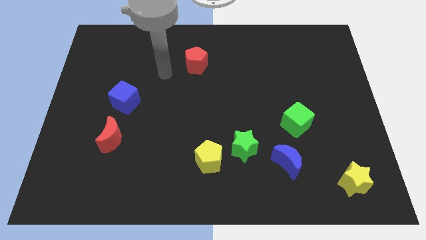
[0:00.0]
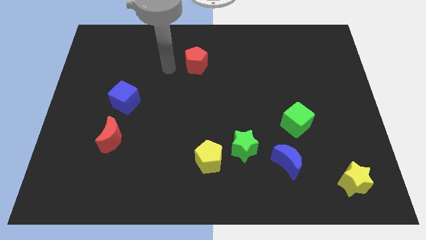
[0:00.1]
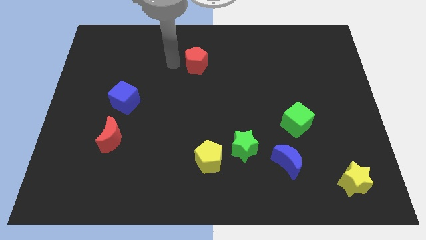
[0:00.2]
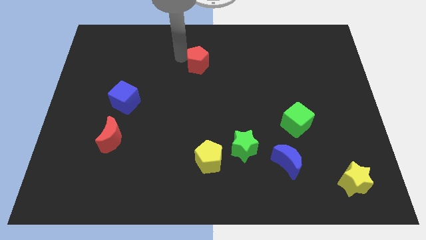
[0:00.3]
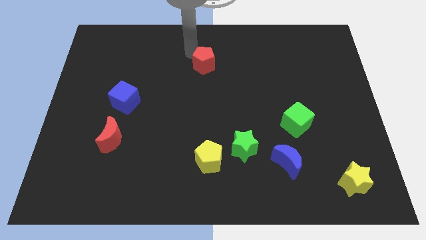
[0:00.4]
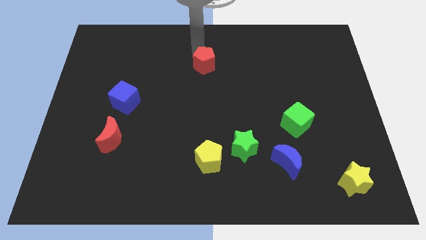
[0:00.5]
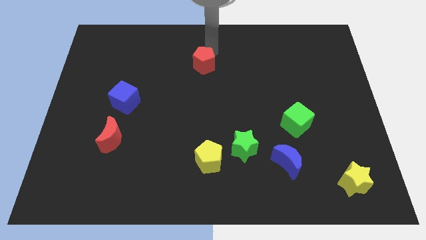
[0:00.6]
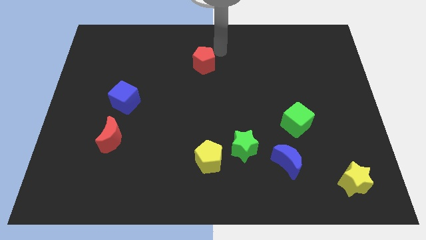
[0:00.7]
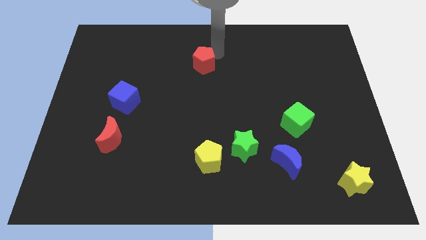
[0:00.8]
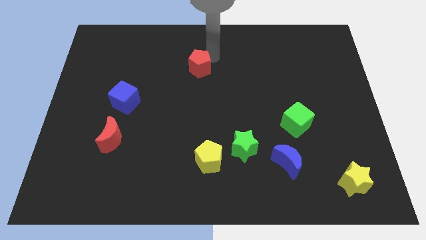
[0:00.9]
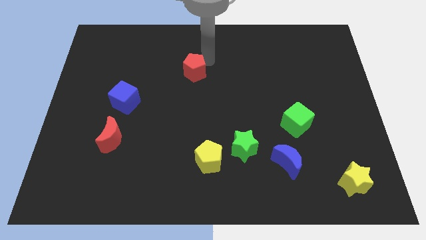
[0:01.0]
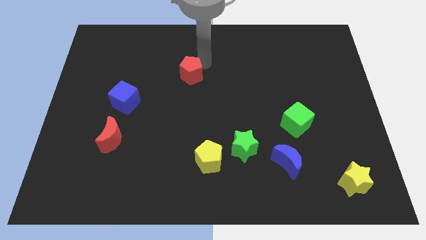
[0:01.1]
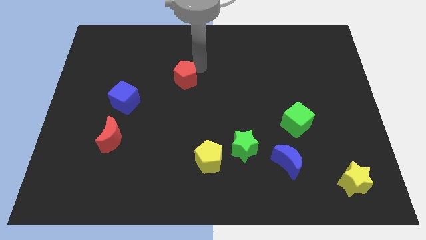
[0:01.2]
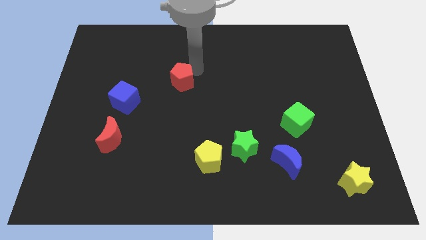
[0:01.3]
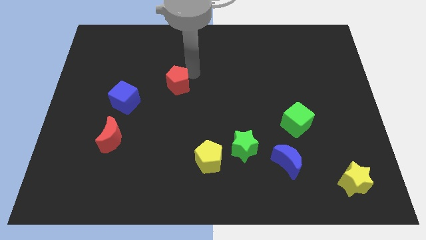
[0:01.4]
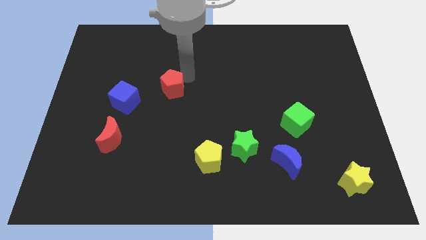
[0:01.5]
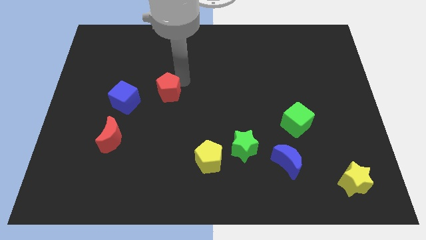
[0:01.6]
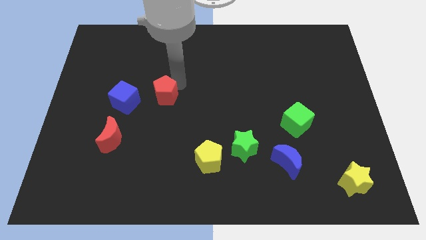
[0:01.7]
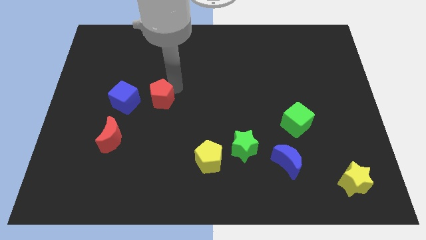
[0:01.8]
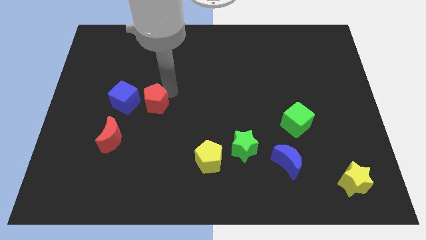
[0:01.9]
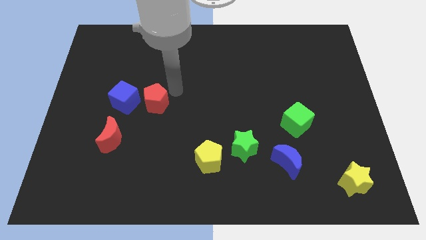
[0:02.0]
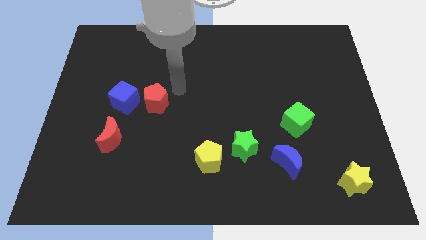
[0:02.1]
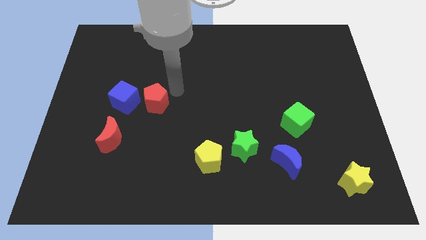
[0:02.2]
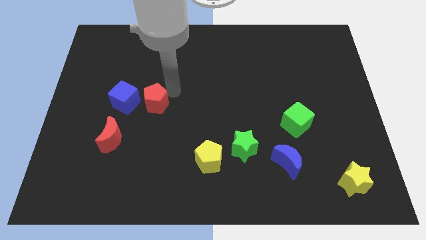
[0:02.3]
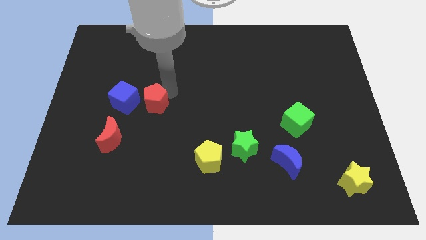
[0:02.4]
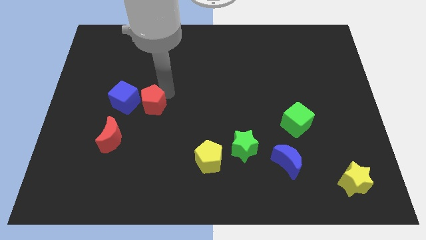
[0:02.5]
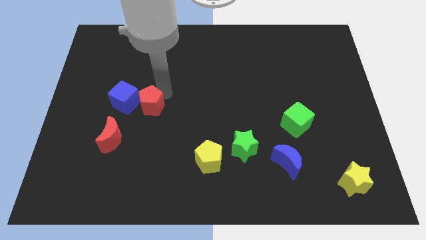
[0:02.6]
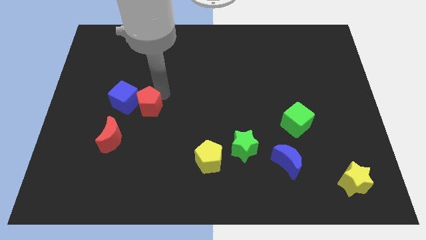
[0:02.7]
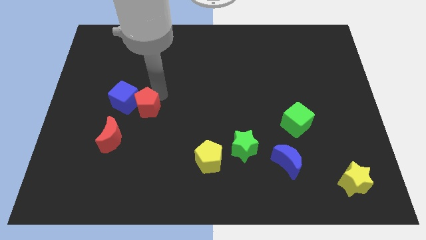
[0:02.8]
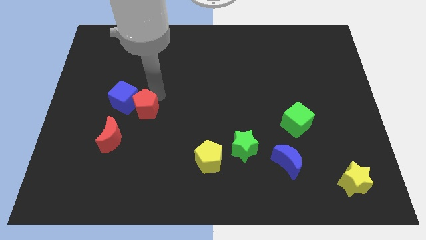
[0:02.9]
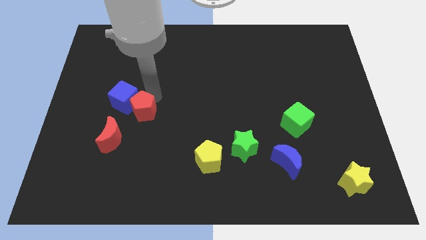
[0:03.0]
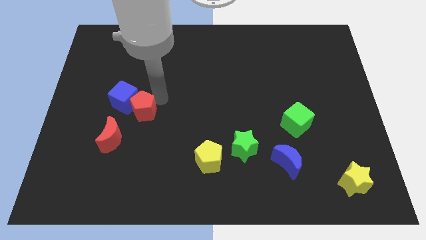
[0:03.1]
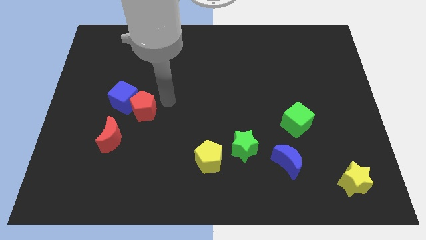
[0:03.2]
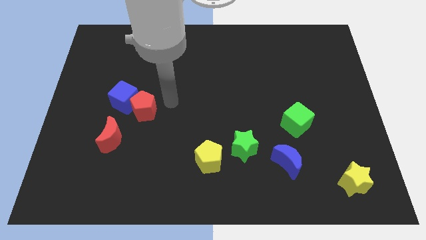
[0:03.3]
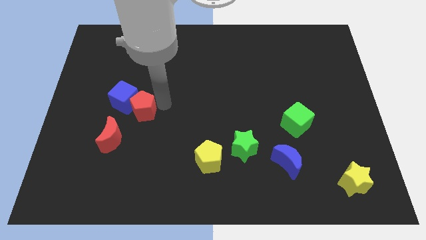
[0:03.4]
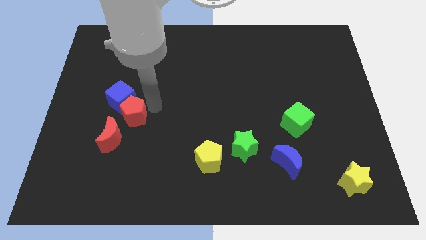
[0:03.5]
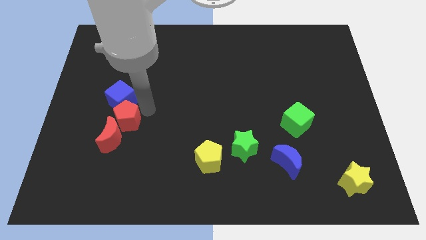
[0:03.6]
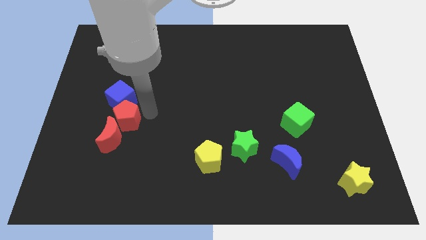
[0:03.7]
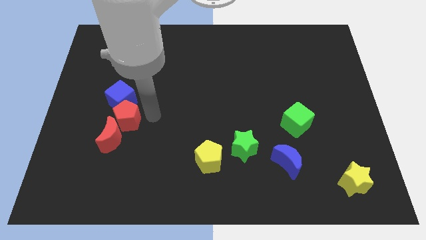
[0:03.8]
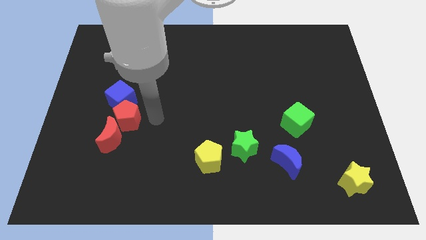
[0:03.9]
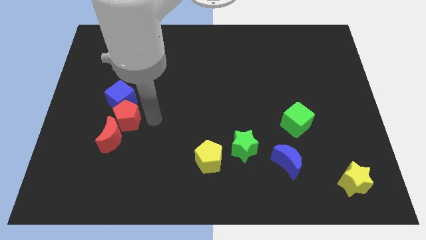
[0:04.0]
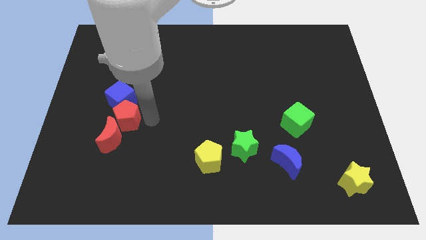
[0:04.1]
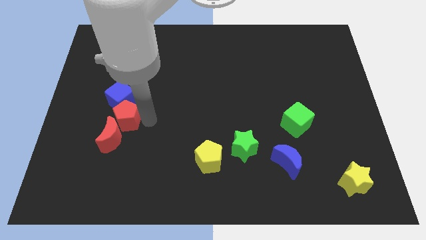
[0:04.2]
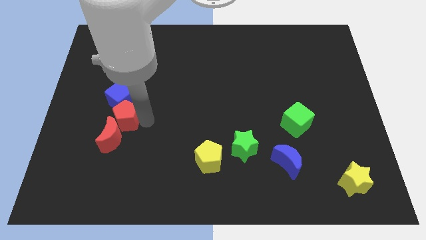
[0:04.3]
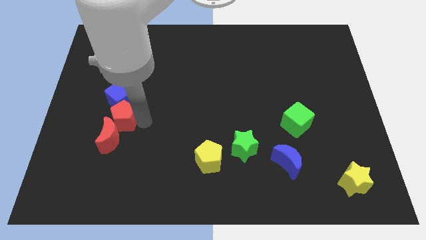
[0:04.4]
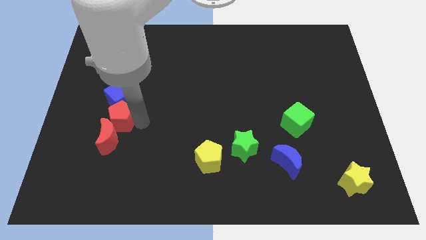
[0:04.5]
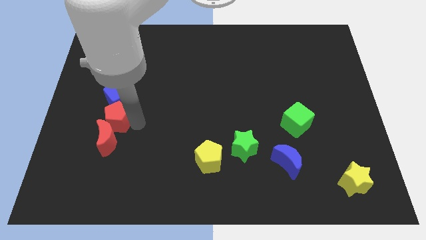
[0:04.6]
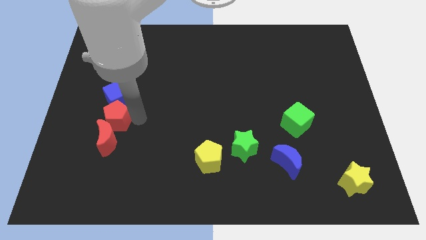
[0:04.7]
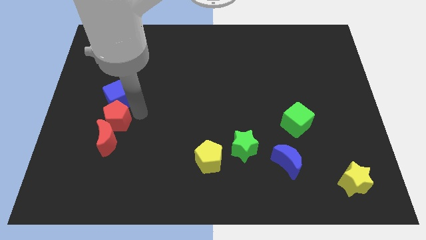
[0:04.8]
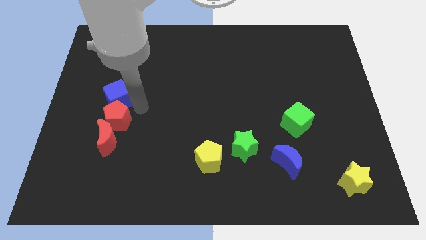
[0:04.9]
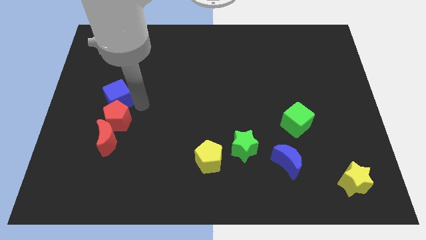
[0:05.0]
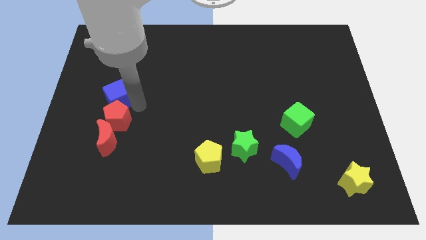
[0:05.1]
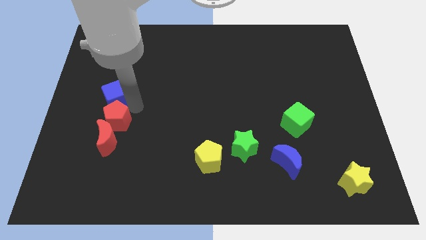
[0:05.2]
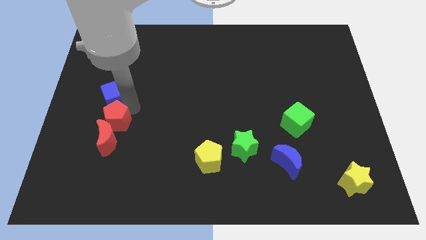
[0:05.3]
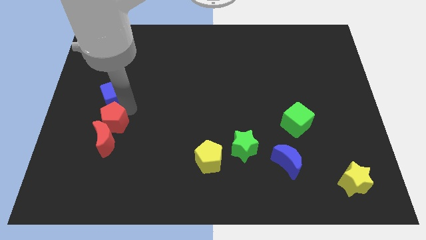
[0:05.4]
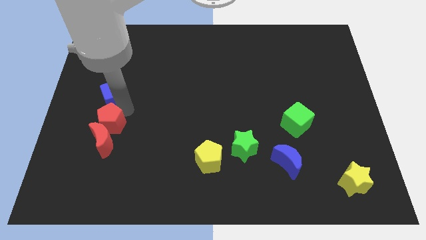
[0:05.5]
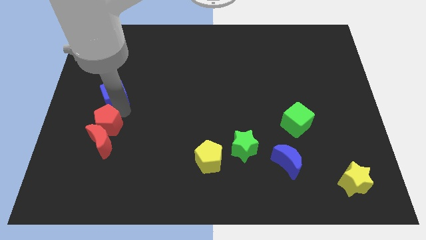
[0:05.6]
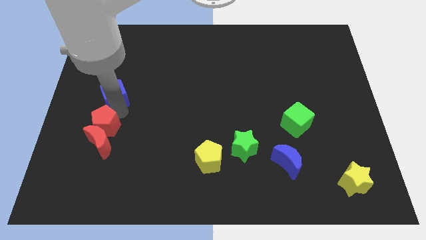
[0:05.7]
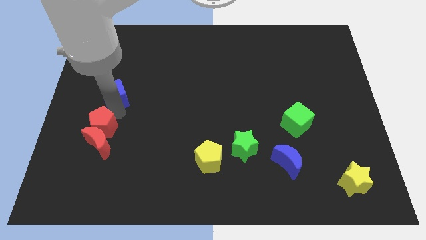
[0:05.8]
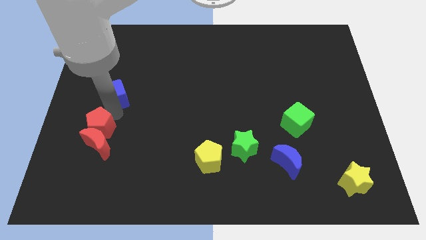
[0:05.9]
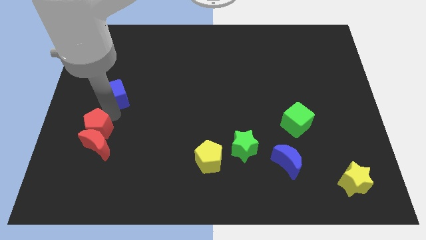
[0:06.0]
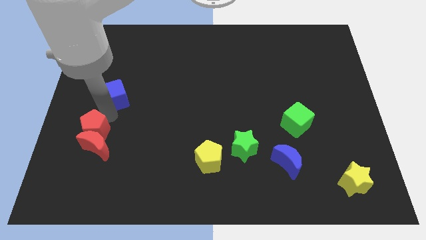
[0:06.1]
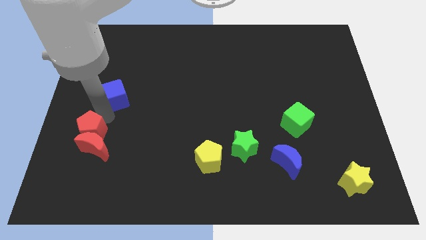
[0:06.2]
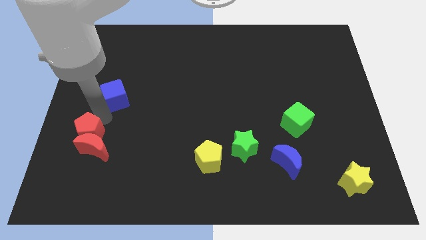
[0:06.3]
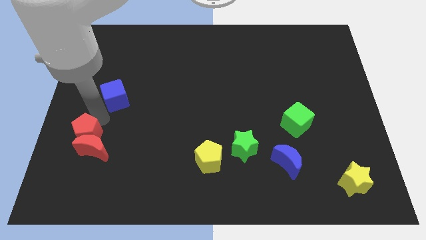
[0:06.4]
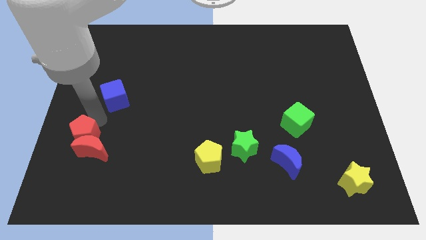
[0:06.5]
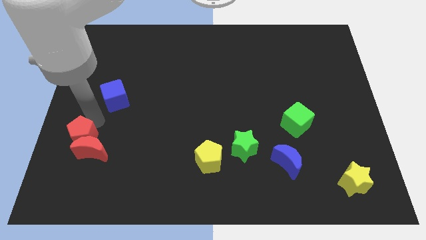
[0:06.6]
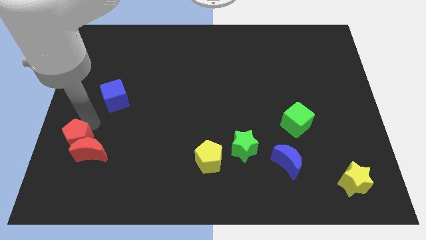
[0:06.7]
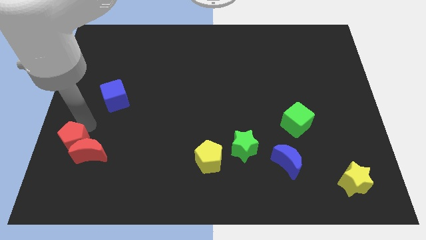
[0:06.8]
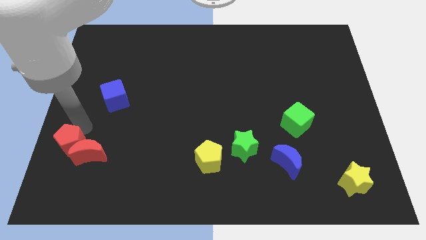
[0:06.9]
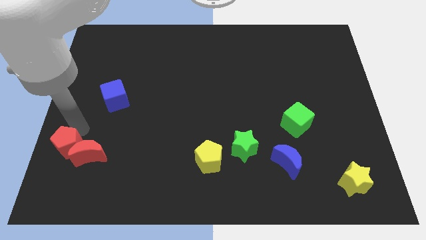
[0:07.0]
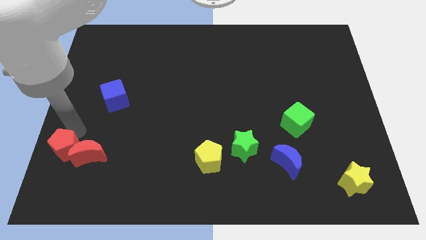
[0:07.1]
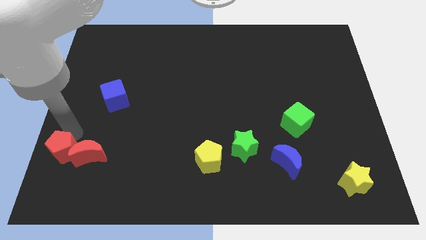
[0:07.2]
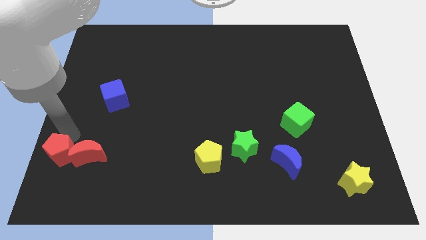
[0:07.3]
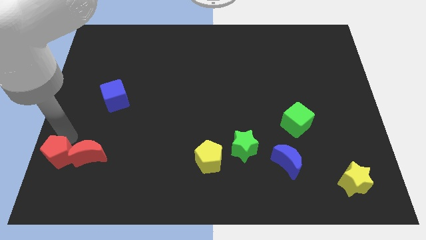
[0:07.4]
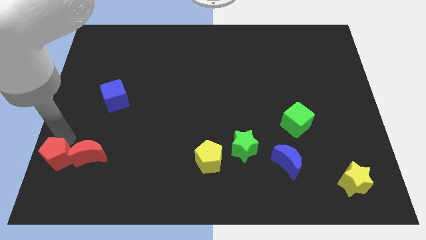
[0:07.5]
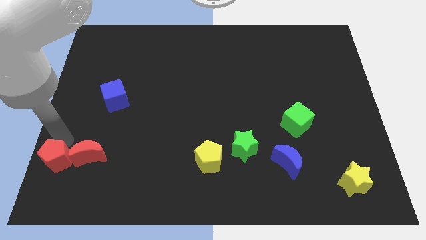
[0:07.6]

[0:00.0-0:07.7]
push the red pentagon to the bottom left
